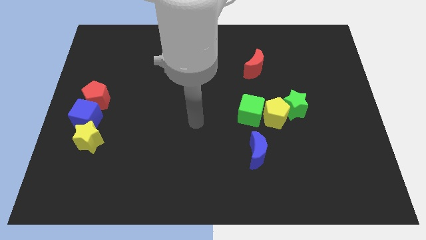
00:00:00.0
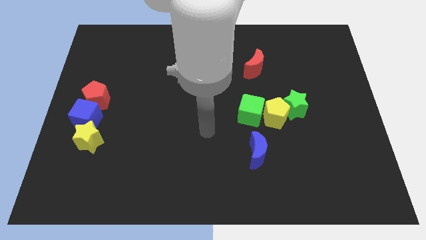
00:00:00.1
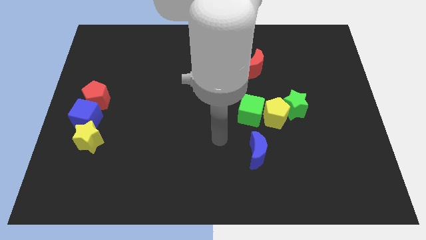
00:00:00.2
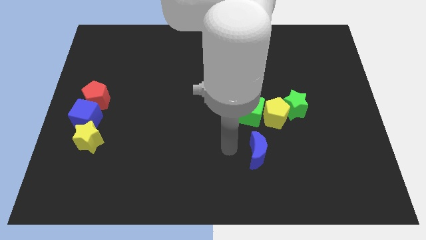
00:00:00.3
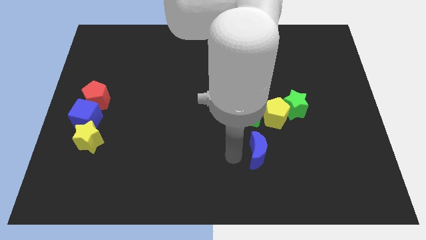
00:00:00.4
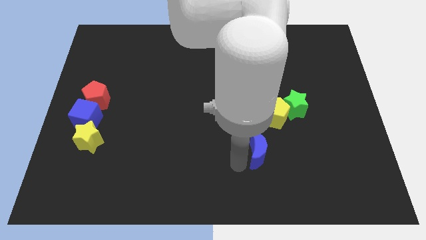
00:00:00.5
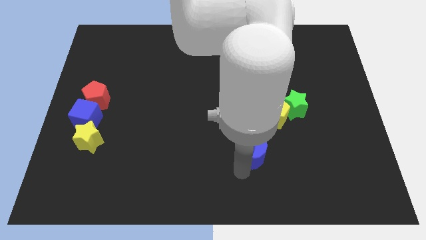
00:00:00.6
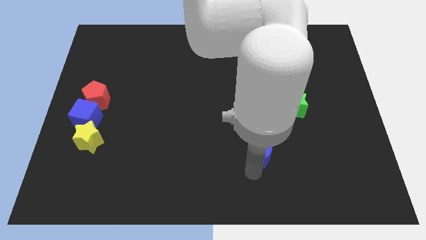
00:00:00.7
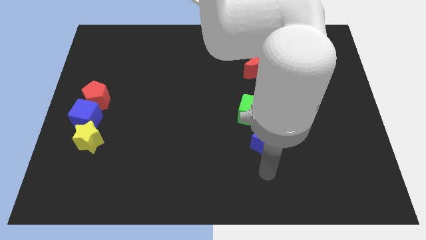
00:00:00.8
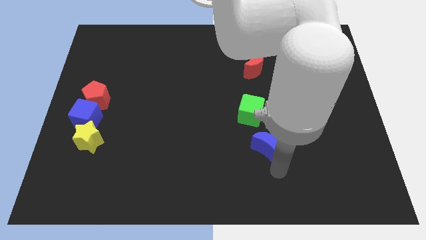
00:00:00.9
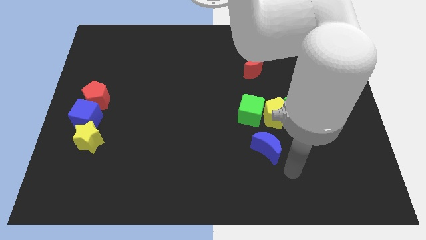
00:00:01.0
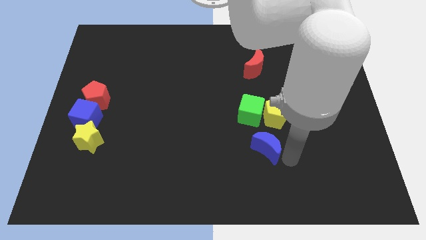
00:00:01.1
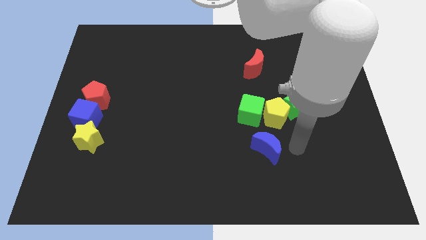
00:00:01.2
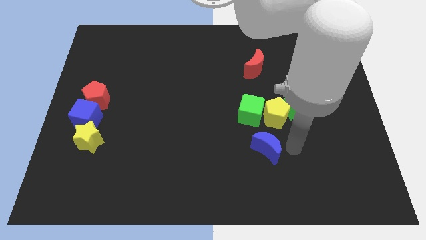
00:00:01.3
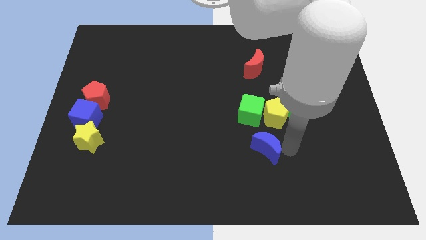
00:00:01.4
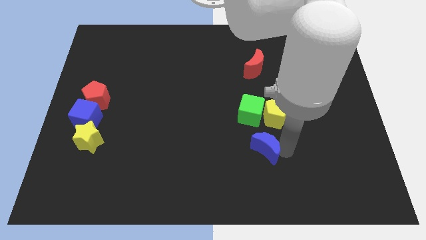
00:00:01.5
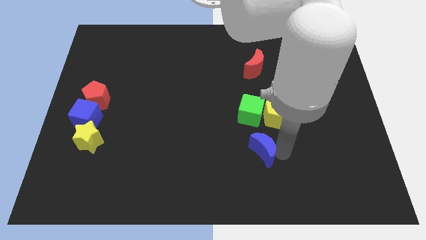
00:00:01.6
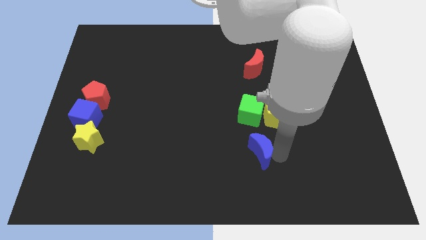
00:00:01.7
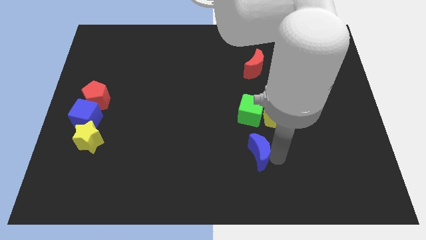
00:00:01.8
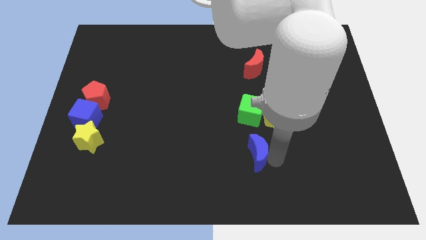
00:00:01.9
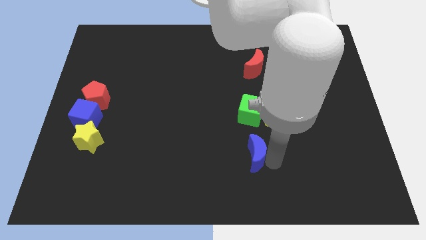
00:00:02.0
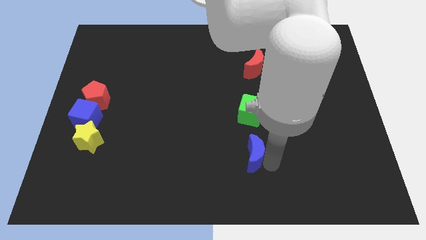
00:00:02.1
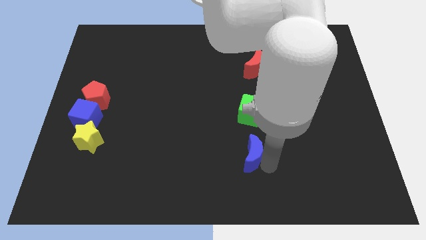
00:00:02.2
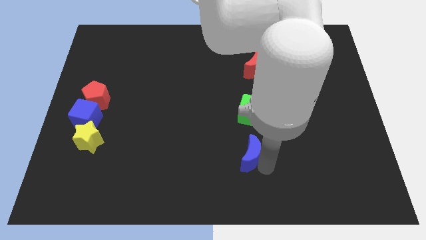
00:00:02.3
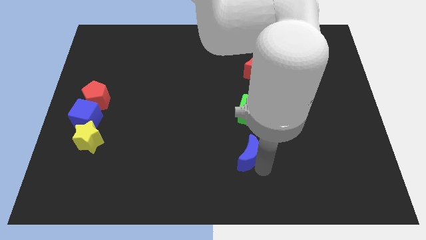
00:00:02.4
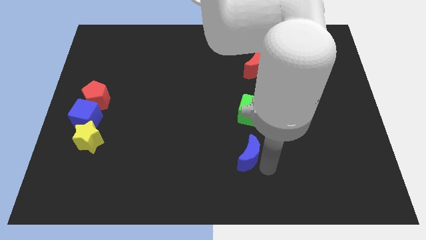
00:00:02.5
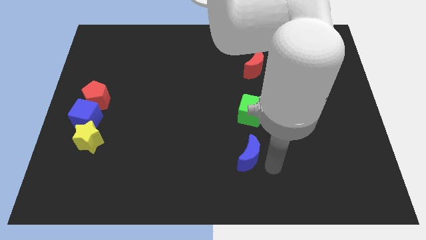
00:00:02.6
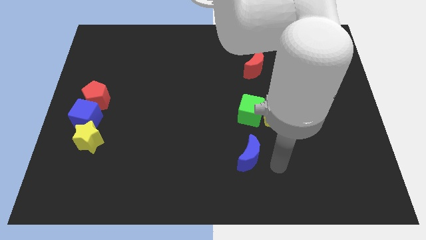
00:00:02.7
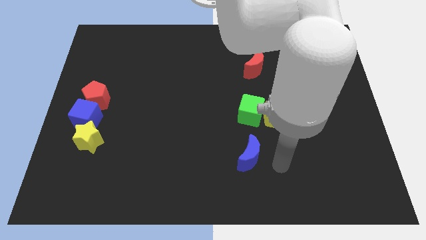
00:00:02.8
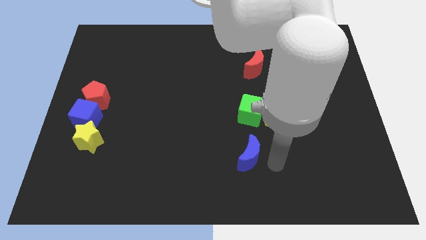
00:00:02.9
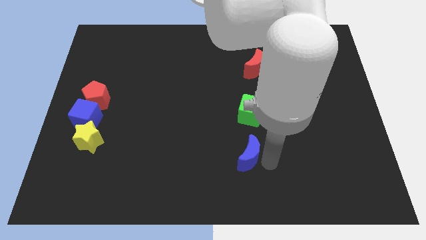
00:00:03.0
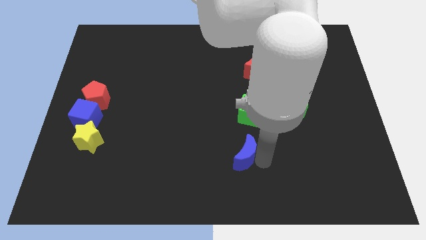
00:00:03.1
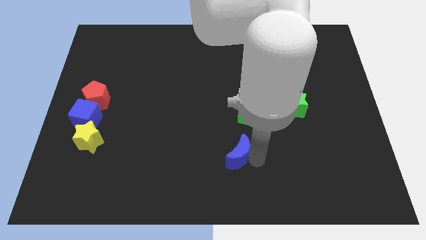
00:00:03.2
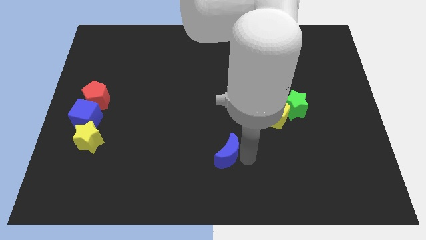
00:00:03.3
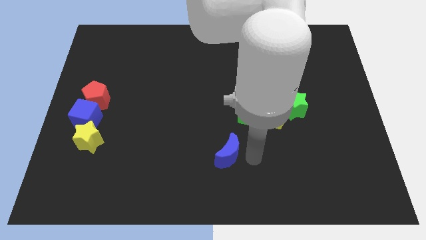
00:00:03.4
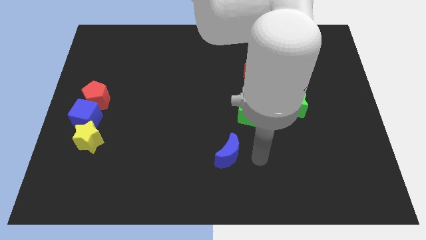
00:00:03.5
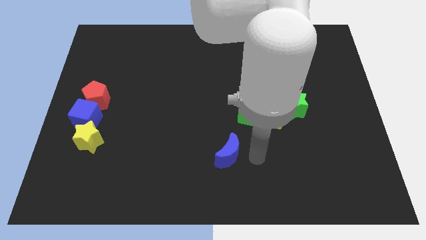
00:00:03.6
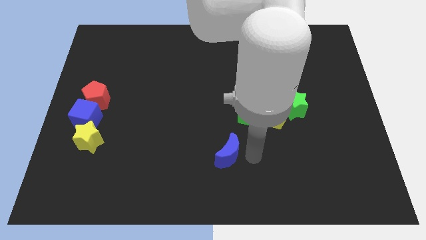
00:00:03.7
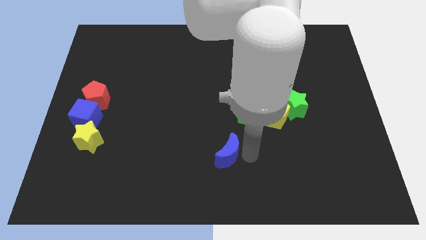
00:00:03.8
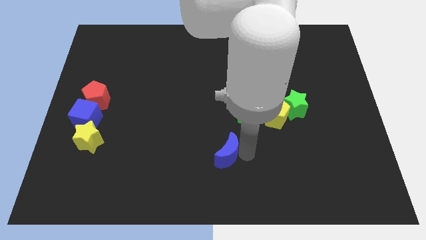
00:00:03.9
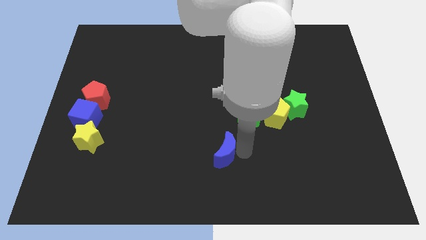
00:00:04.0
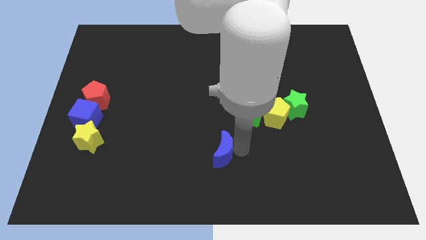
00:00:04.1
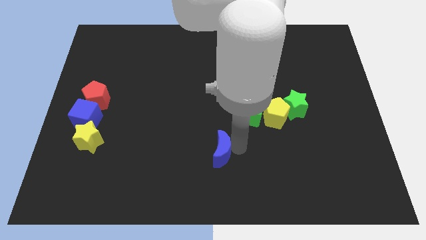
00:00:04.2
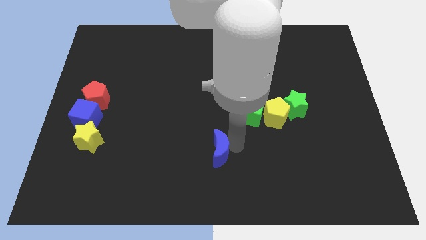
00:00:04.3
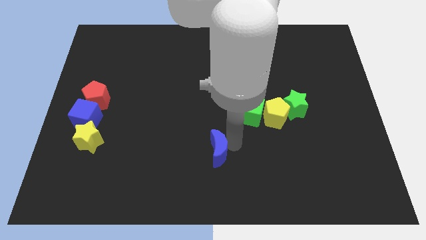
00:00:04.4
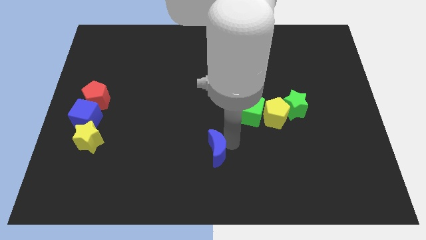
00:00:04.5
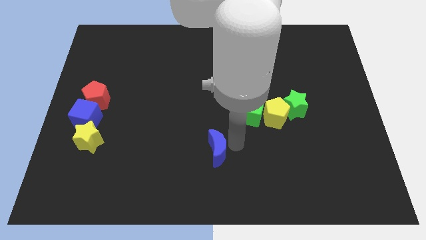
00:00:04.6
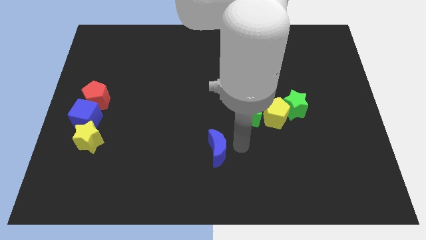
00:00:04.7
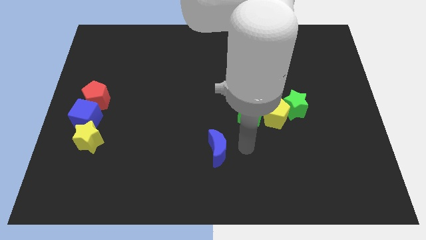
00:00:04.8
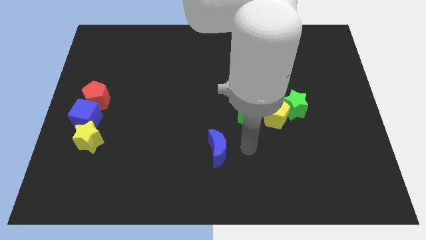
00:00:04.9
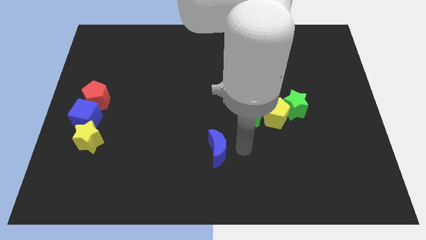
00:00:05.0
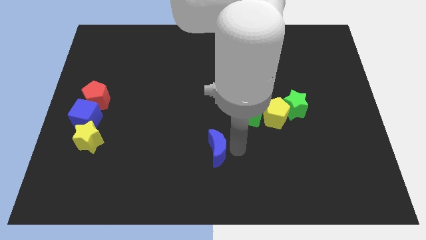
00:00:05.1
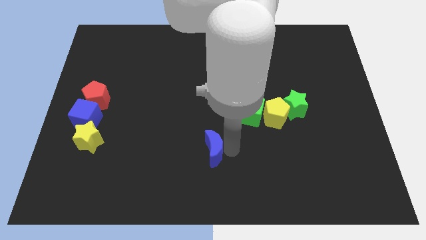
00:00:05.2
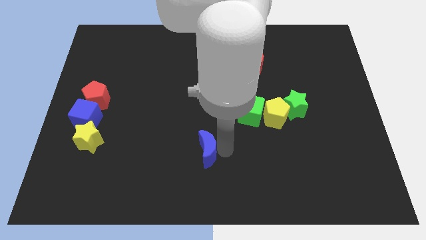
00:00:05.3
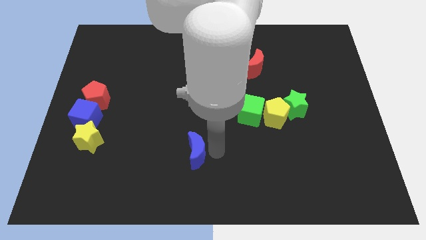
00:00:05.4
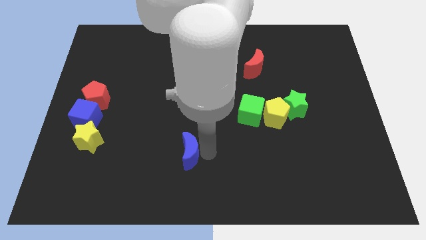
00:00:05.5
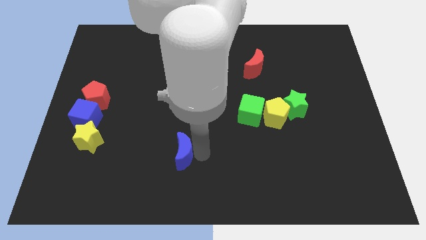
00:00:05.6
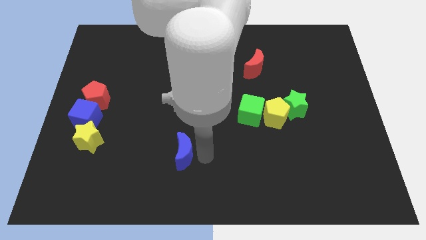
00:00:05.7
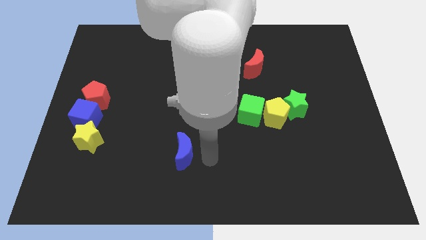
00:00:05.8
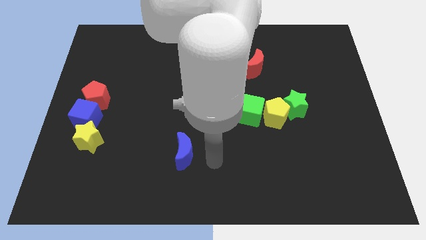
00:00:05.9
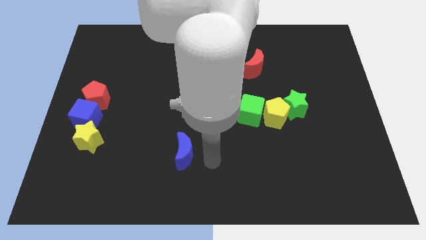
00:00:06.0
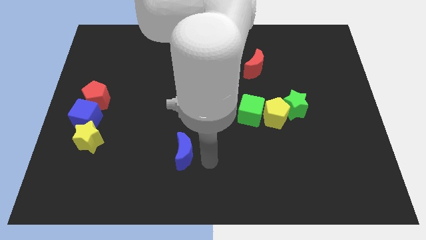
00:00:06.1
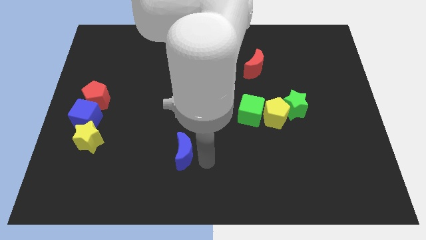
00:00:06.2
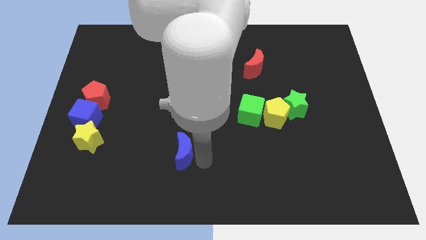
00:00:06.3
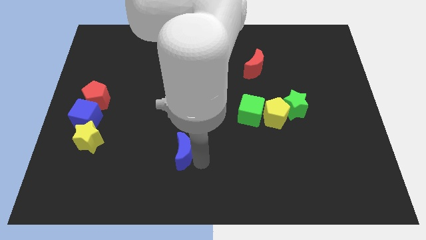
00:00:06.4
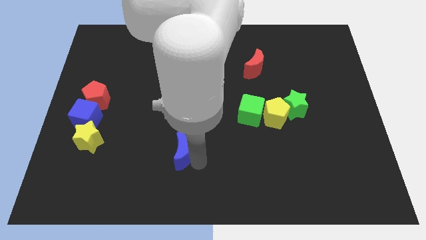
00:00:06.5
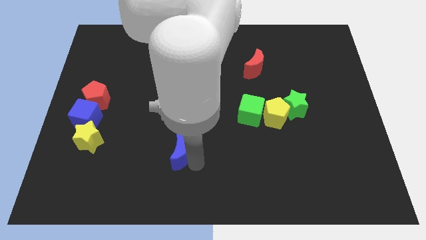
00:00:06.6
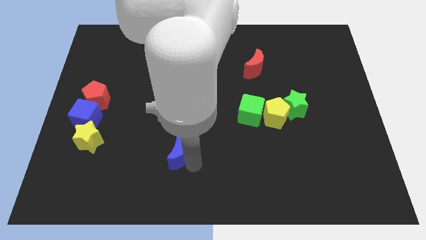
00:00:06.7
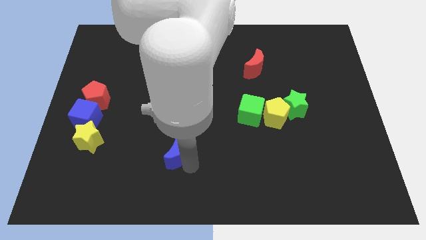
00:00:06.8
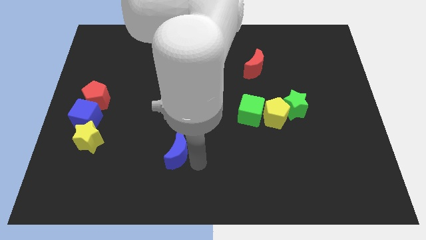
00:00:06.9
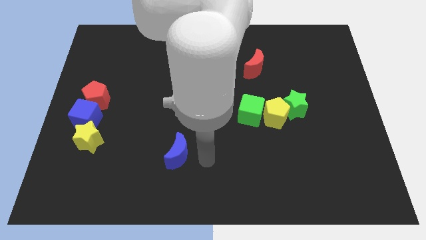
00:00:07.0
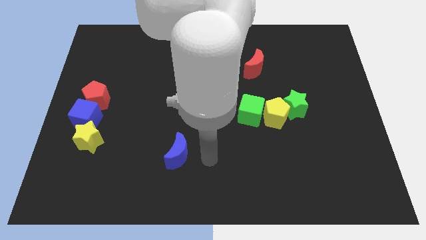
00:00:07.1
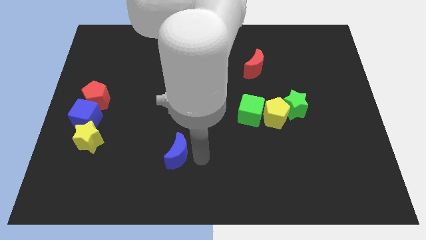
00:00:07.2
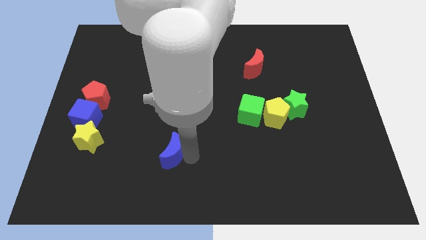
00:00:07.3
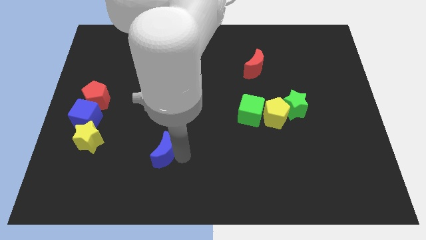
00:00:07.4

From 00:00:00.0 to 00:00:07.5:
push the blue moon left

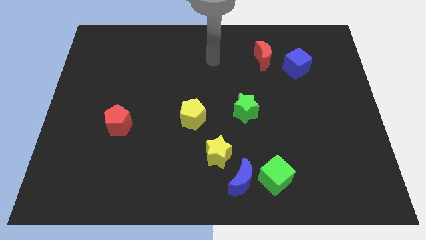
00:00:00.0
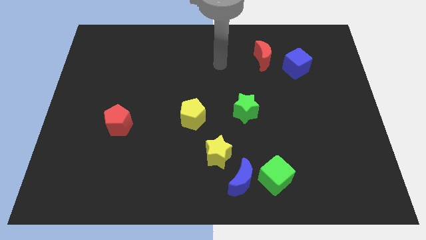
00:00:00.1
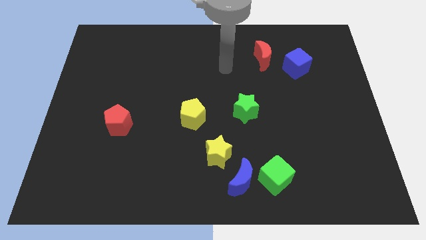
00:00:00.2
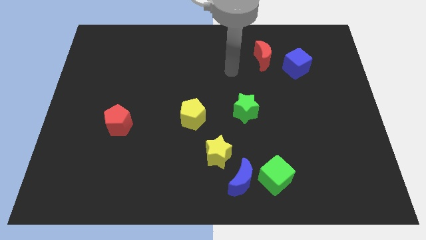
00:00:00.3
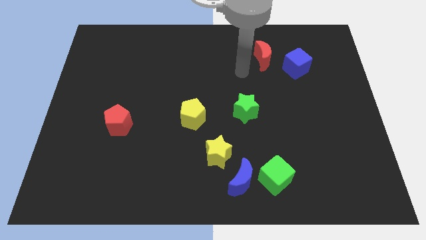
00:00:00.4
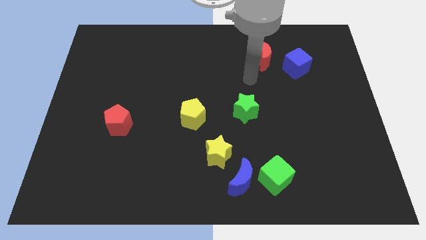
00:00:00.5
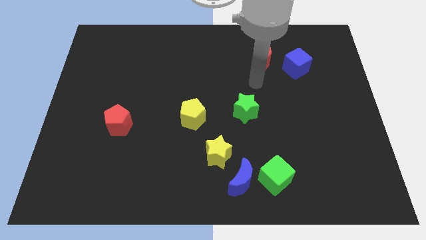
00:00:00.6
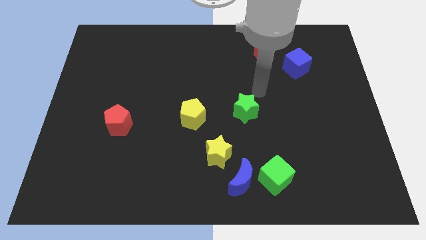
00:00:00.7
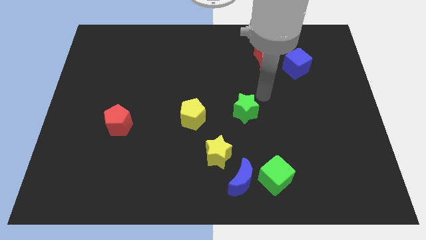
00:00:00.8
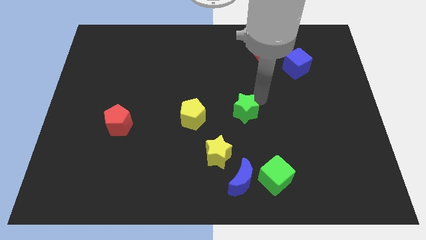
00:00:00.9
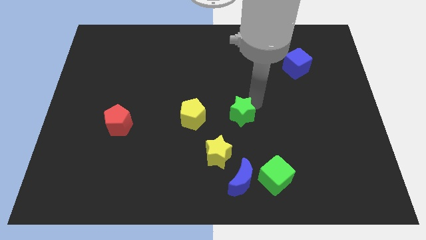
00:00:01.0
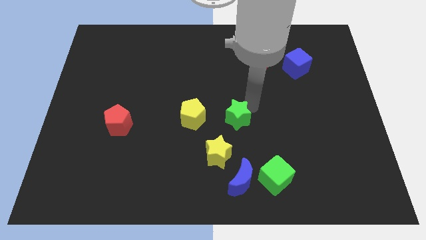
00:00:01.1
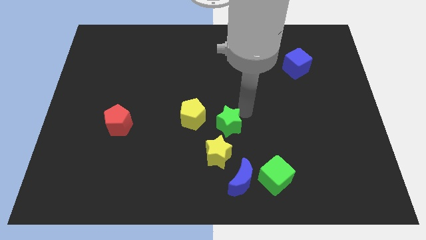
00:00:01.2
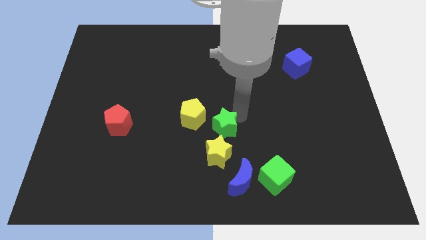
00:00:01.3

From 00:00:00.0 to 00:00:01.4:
push the green star downwards and to the left a bit
